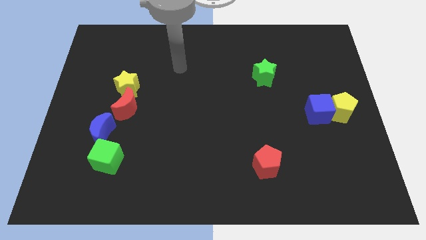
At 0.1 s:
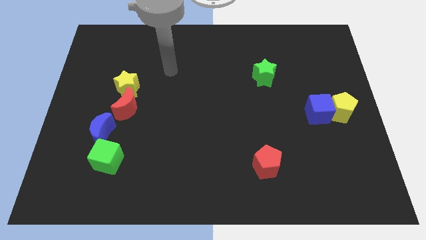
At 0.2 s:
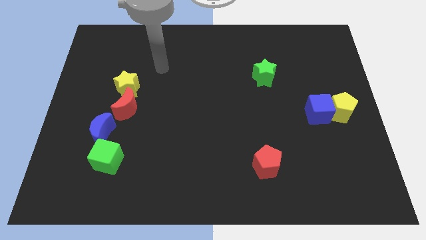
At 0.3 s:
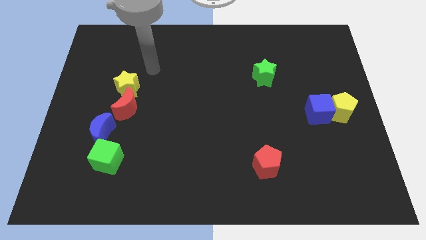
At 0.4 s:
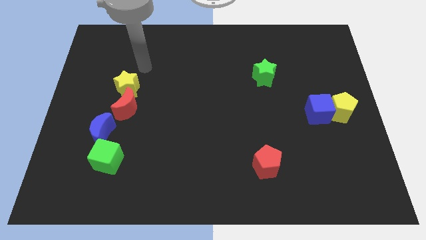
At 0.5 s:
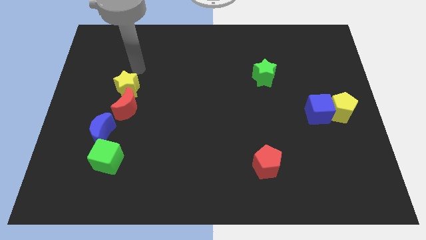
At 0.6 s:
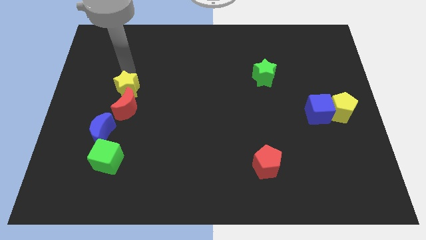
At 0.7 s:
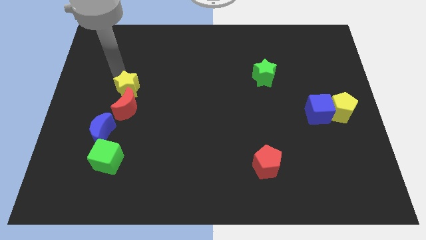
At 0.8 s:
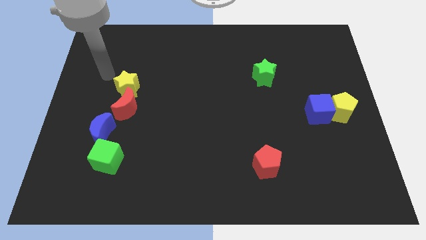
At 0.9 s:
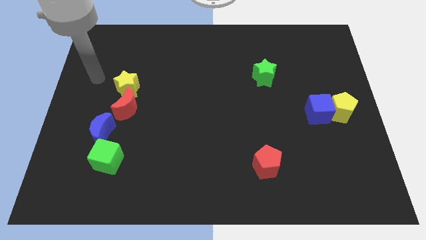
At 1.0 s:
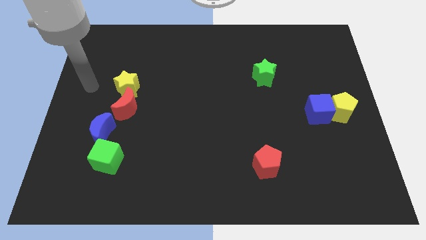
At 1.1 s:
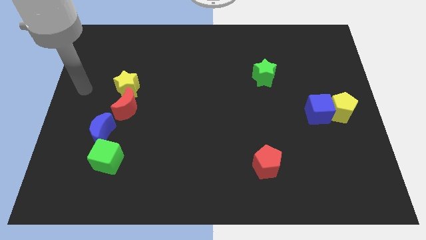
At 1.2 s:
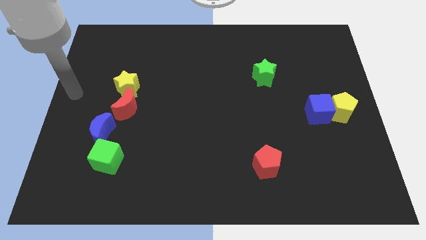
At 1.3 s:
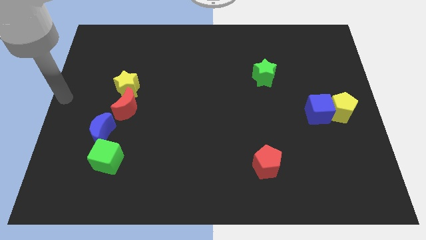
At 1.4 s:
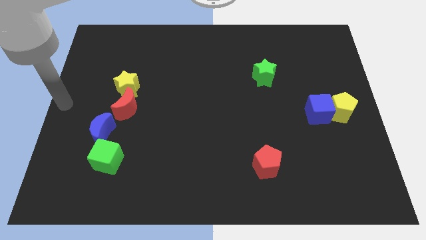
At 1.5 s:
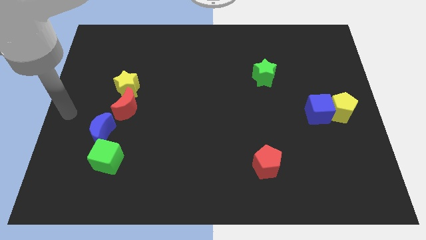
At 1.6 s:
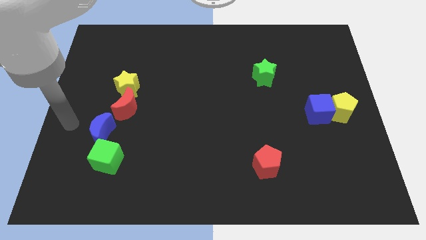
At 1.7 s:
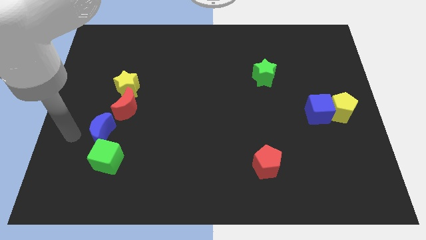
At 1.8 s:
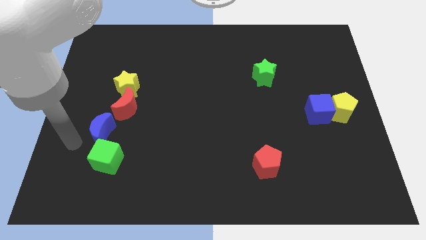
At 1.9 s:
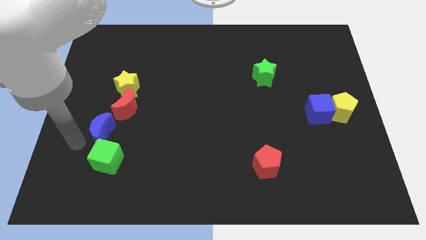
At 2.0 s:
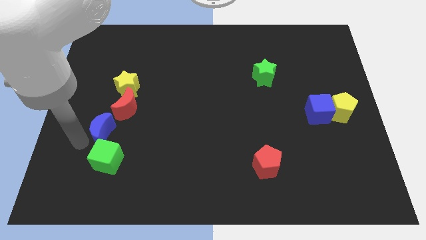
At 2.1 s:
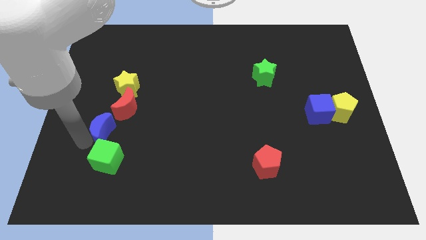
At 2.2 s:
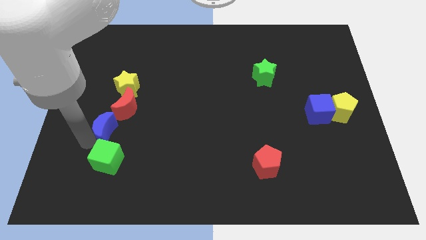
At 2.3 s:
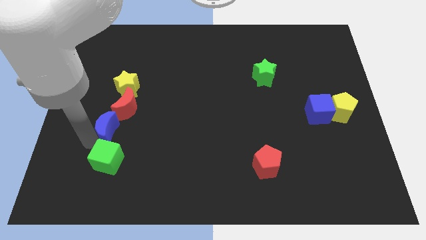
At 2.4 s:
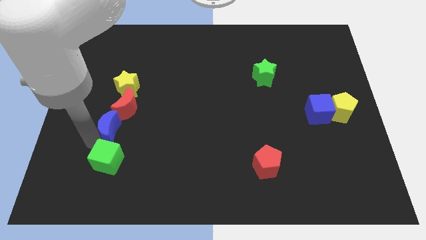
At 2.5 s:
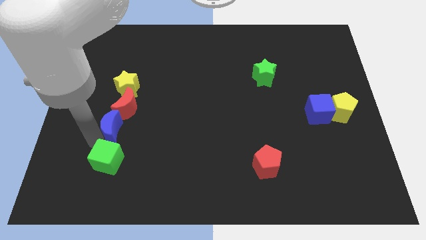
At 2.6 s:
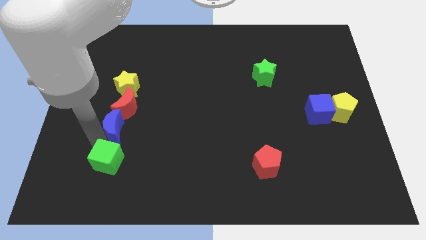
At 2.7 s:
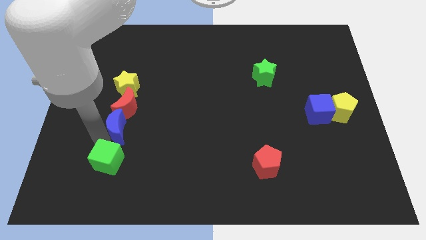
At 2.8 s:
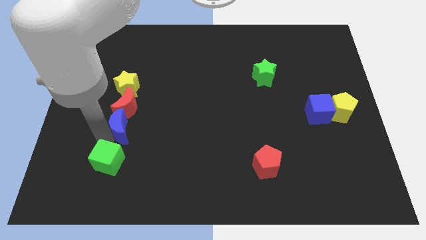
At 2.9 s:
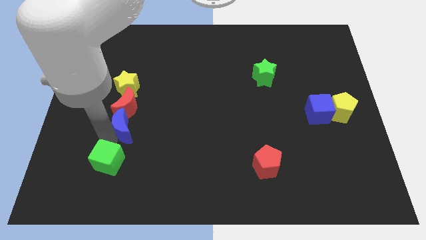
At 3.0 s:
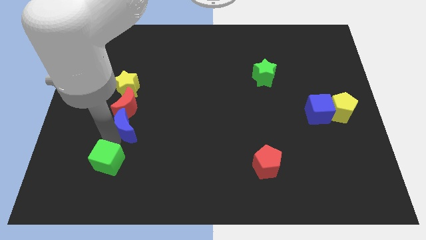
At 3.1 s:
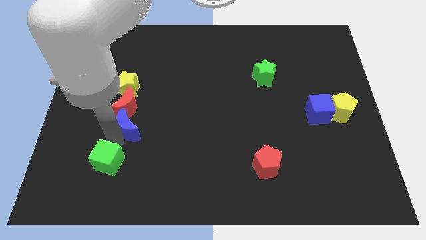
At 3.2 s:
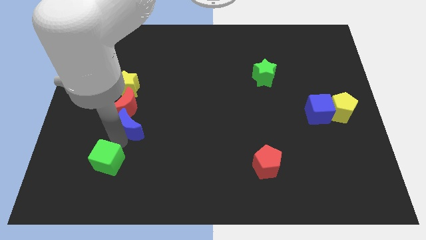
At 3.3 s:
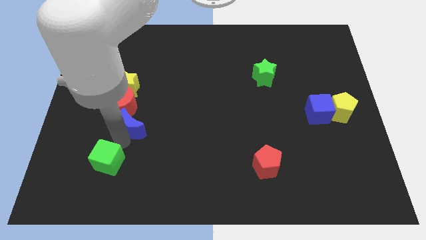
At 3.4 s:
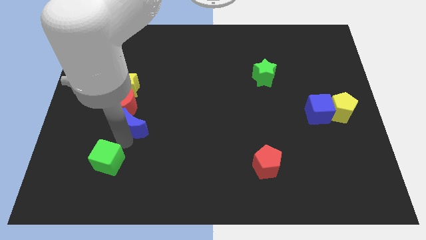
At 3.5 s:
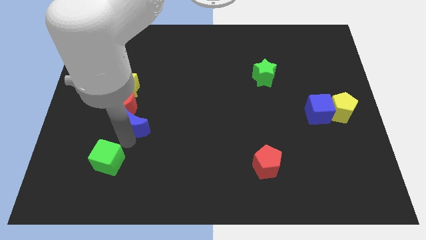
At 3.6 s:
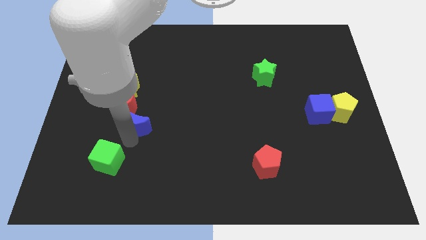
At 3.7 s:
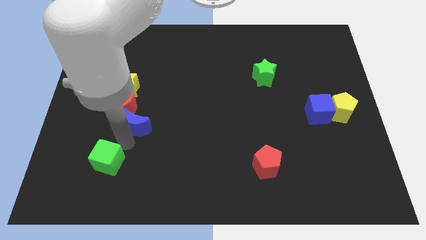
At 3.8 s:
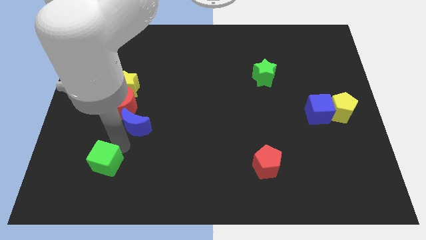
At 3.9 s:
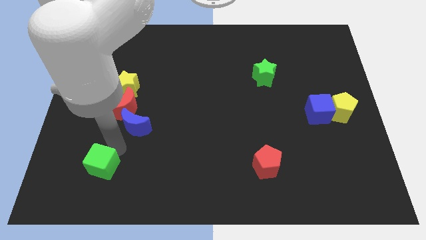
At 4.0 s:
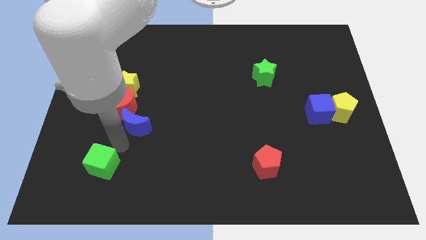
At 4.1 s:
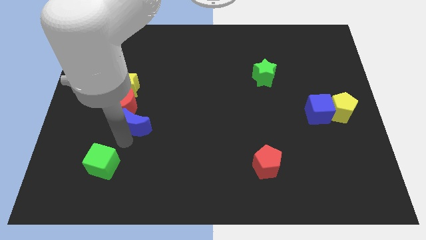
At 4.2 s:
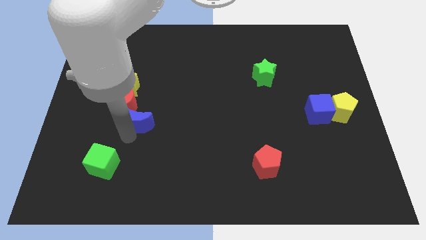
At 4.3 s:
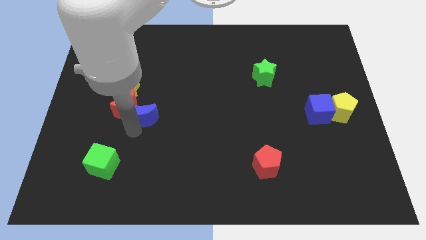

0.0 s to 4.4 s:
slide the blue moon upwards and then to the right slightly

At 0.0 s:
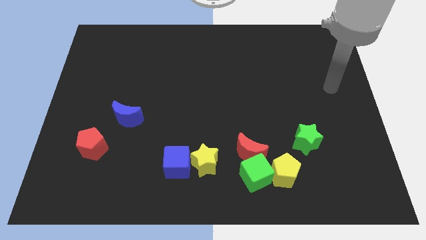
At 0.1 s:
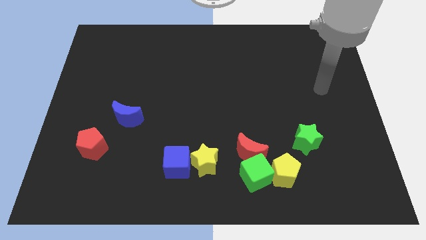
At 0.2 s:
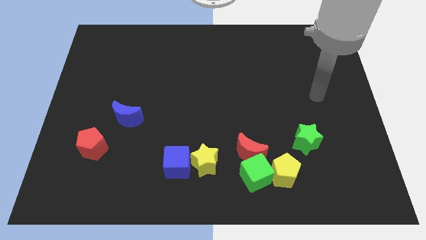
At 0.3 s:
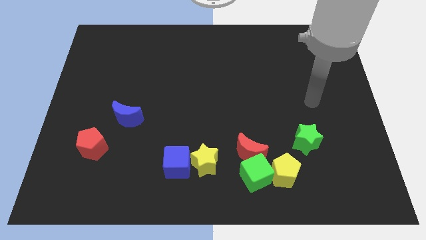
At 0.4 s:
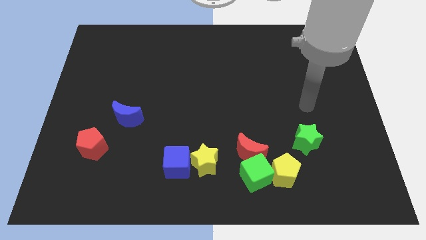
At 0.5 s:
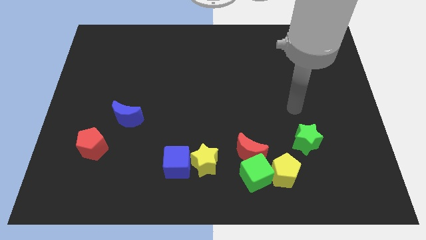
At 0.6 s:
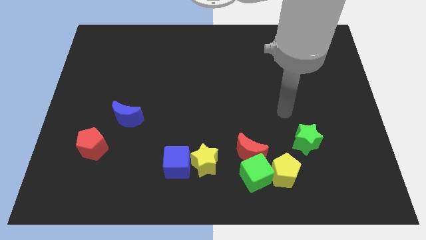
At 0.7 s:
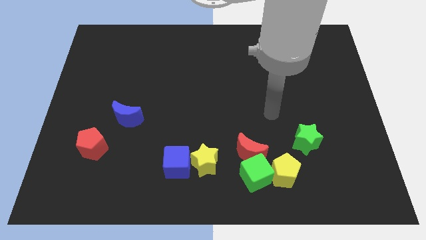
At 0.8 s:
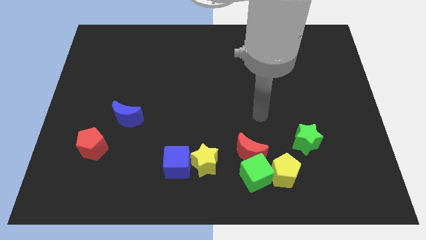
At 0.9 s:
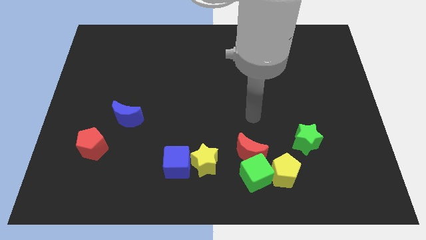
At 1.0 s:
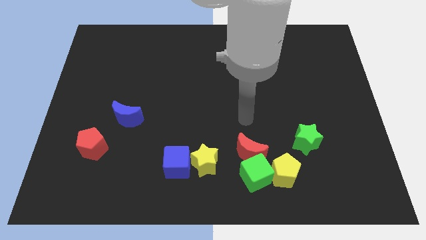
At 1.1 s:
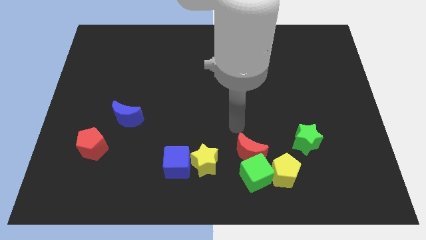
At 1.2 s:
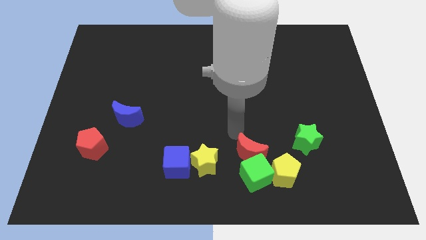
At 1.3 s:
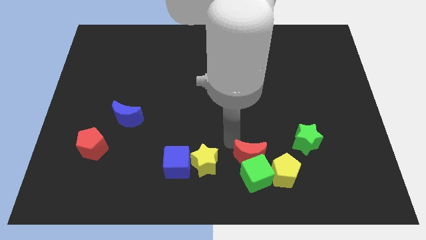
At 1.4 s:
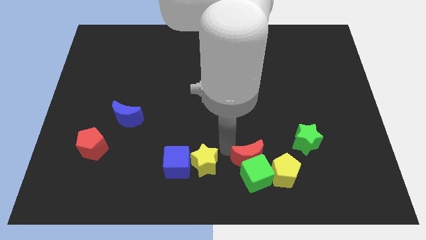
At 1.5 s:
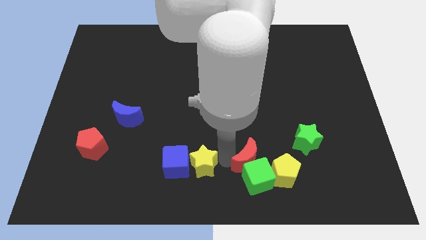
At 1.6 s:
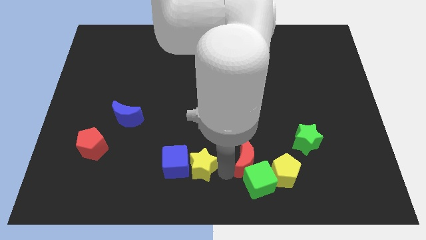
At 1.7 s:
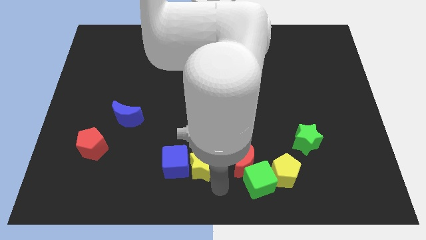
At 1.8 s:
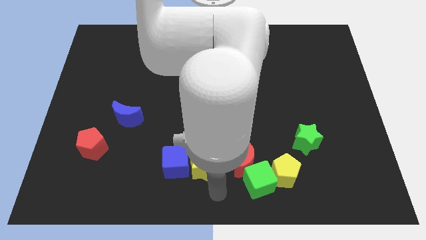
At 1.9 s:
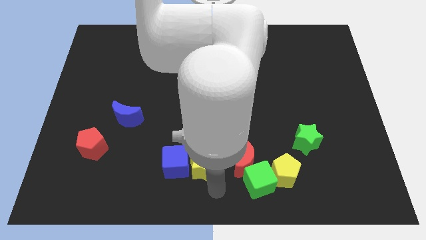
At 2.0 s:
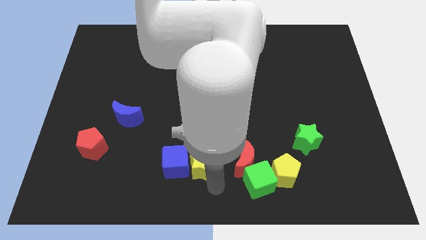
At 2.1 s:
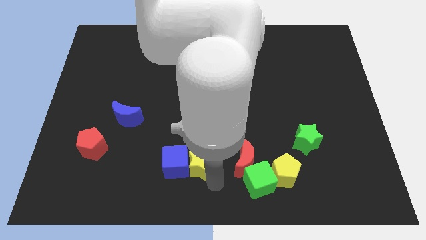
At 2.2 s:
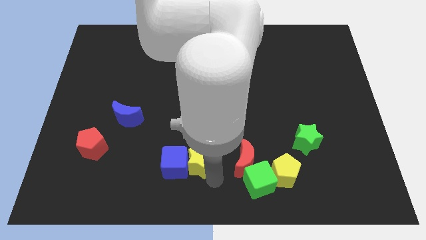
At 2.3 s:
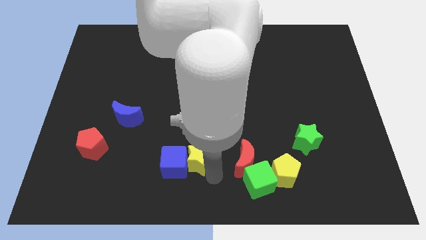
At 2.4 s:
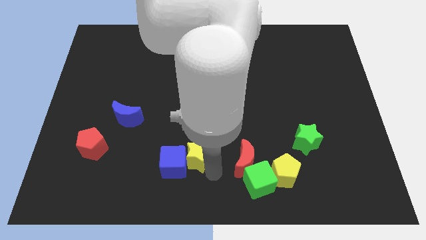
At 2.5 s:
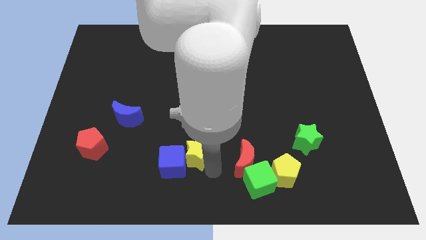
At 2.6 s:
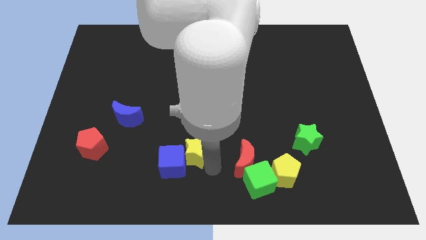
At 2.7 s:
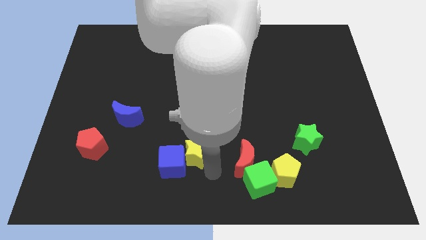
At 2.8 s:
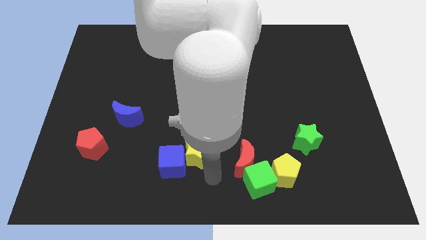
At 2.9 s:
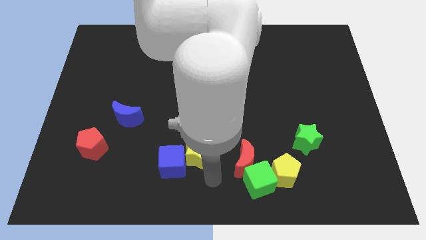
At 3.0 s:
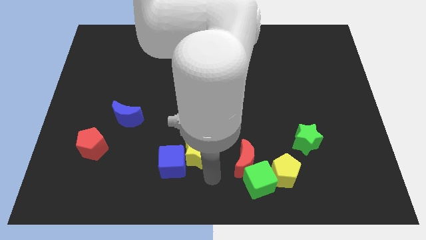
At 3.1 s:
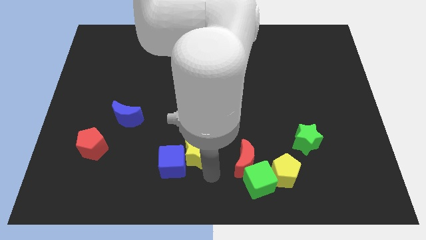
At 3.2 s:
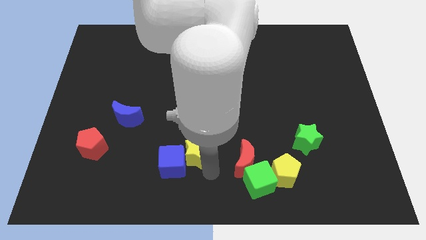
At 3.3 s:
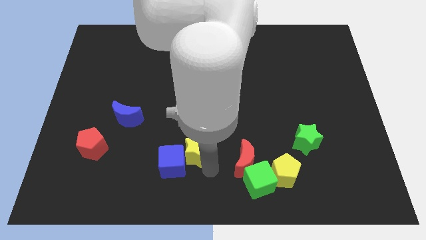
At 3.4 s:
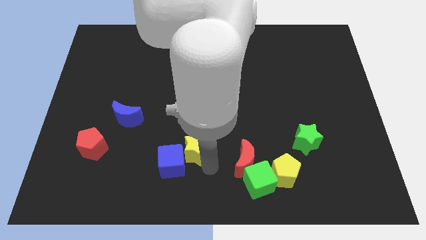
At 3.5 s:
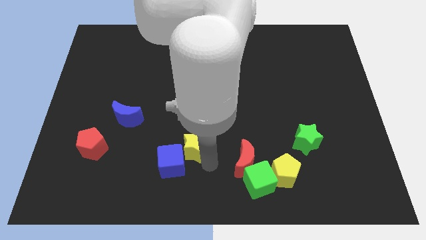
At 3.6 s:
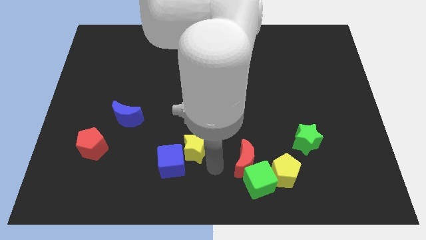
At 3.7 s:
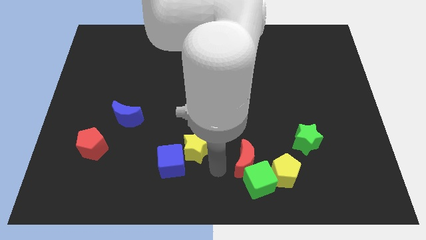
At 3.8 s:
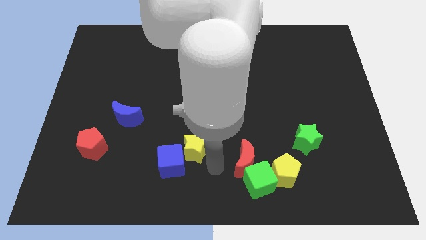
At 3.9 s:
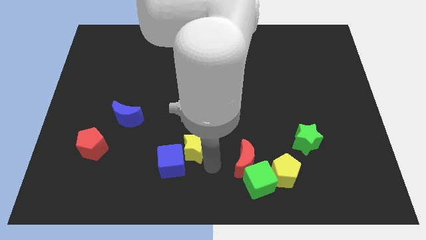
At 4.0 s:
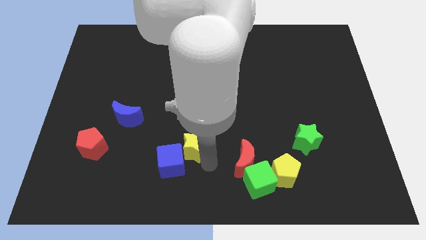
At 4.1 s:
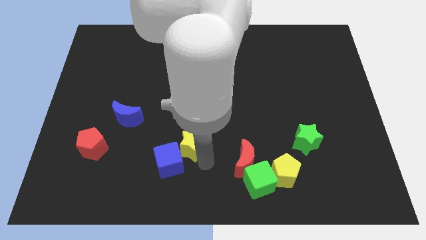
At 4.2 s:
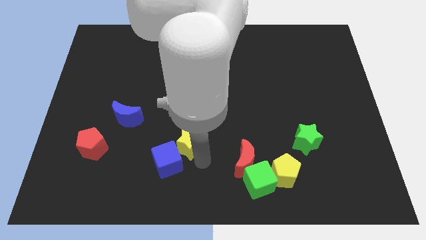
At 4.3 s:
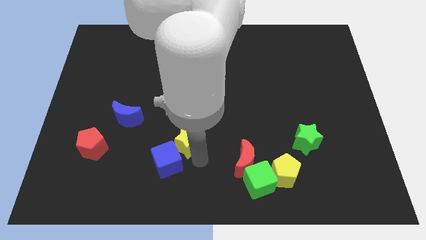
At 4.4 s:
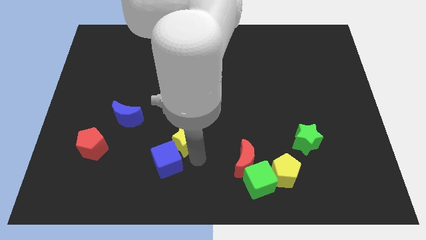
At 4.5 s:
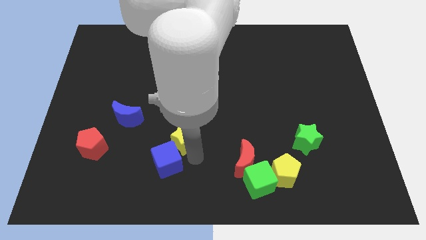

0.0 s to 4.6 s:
slide the yellow star a little bit up and left
